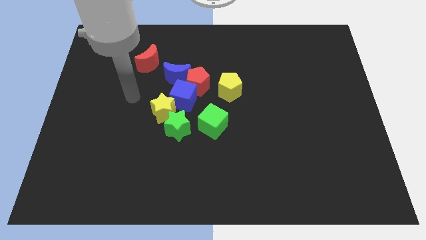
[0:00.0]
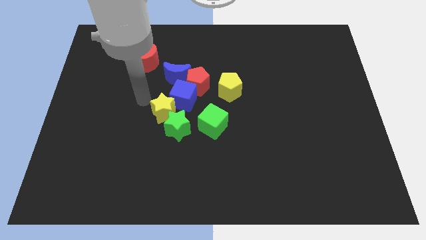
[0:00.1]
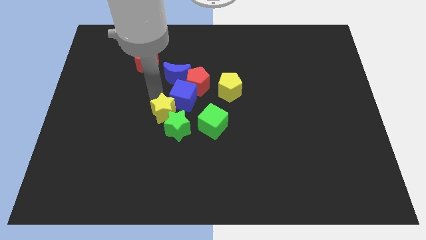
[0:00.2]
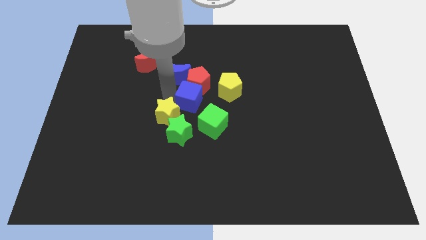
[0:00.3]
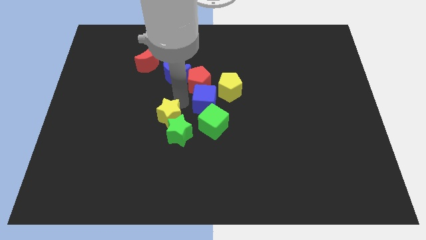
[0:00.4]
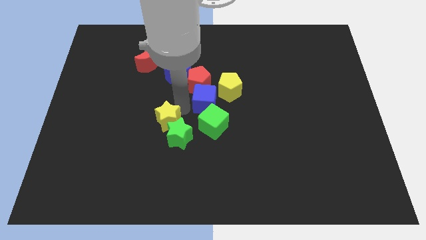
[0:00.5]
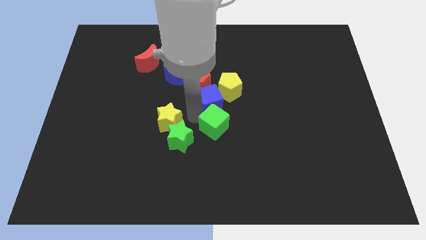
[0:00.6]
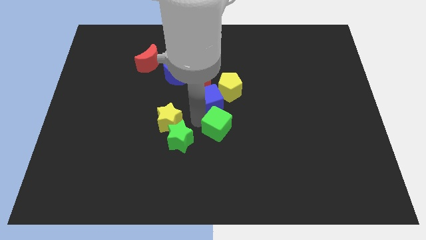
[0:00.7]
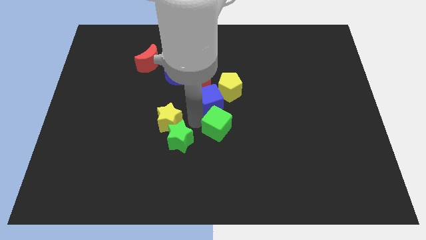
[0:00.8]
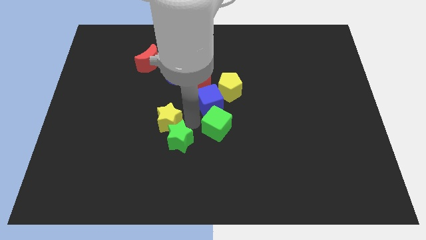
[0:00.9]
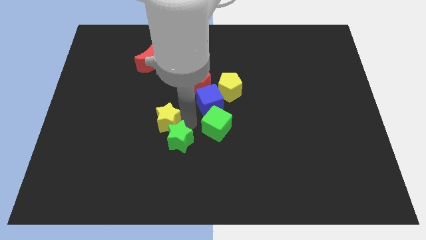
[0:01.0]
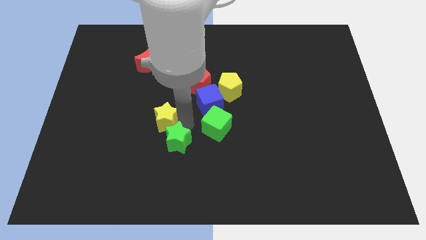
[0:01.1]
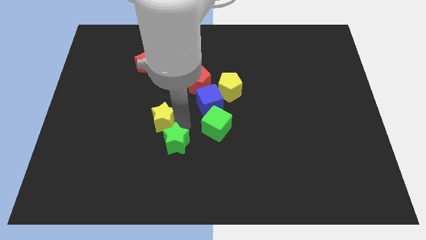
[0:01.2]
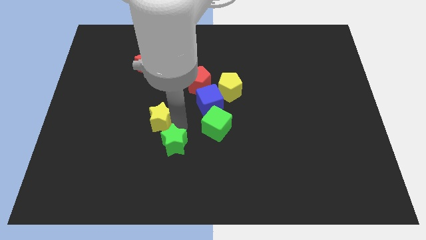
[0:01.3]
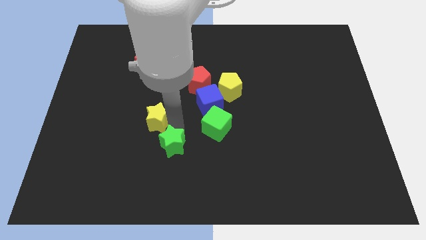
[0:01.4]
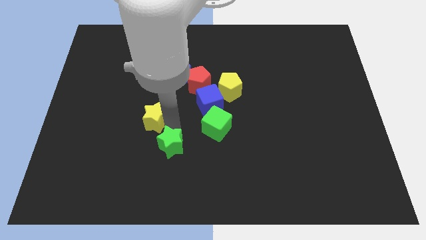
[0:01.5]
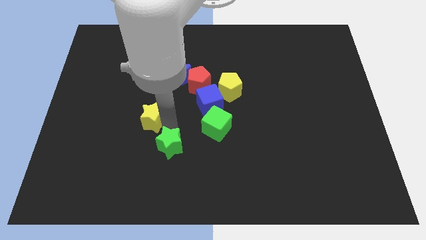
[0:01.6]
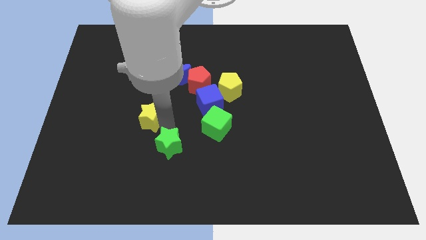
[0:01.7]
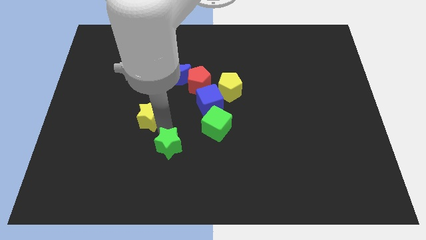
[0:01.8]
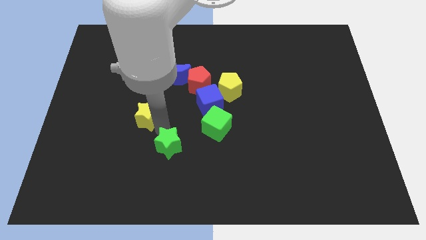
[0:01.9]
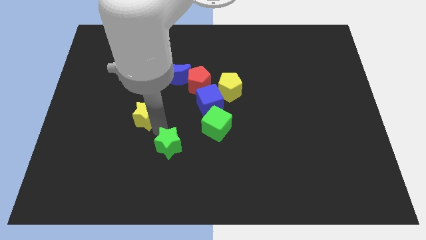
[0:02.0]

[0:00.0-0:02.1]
pull the yellow star apart from the green star and blue cube

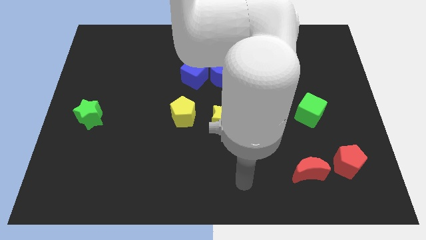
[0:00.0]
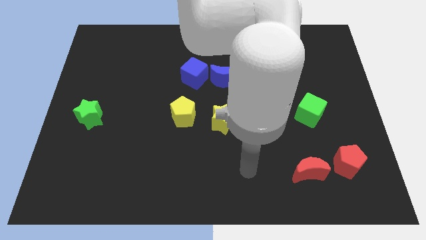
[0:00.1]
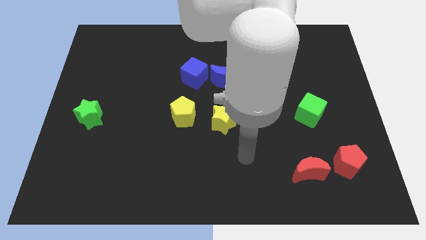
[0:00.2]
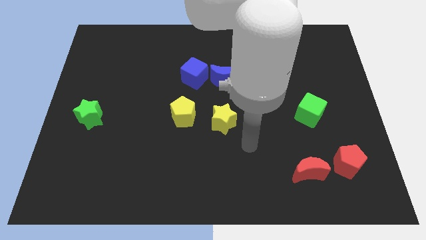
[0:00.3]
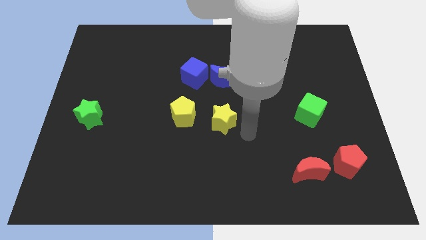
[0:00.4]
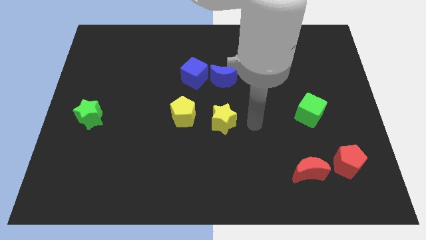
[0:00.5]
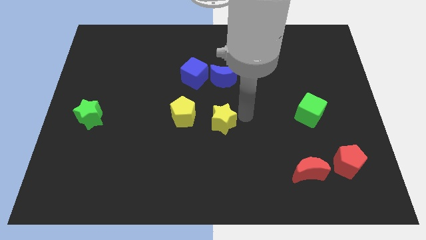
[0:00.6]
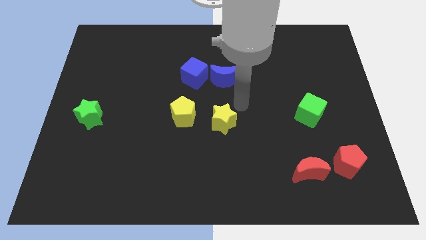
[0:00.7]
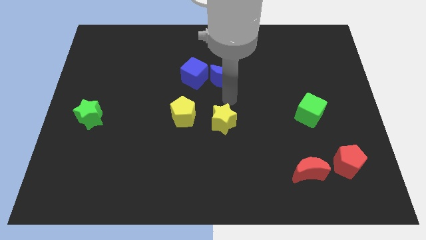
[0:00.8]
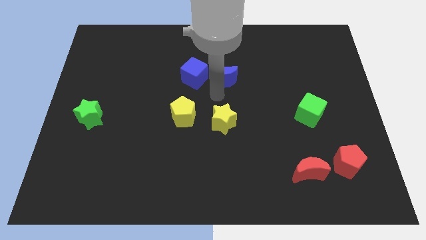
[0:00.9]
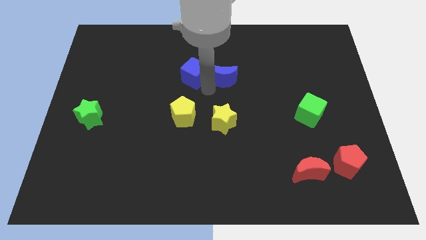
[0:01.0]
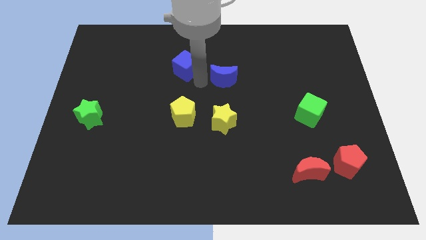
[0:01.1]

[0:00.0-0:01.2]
pull the blue moon apart from the blue cube

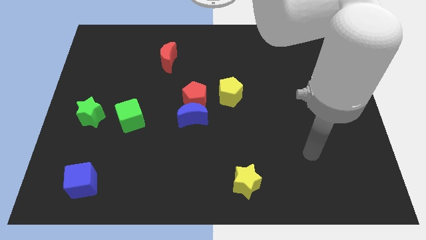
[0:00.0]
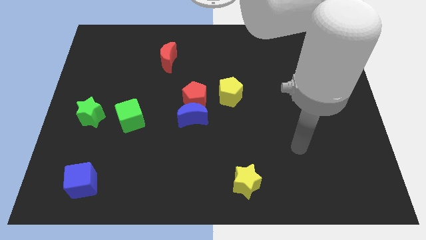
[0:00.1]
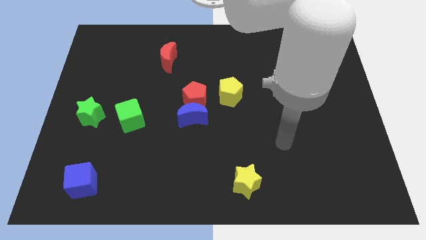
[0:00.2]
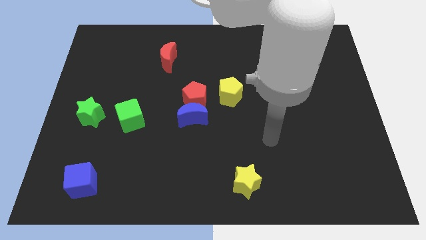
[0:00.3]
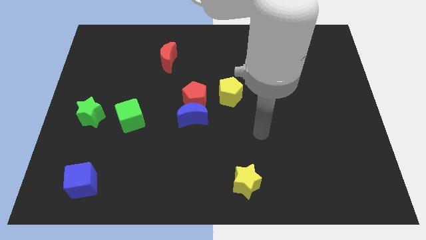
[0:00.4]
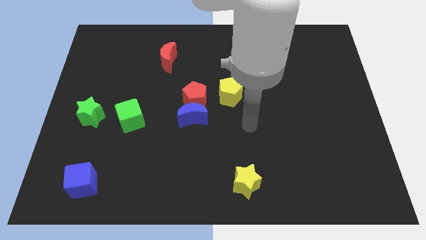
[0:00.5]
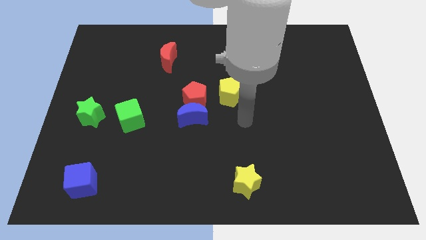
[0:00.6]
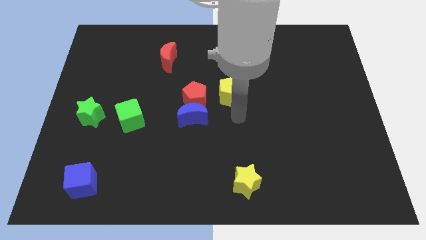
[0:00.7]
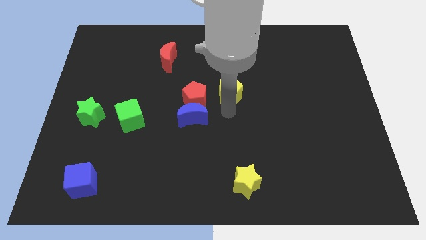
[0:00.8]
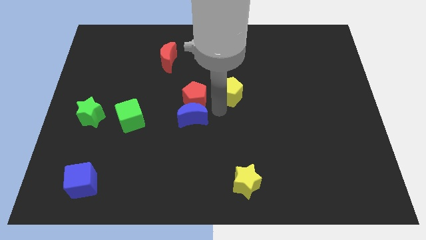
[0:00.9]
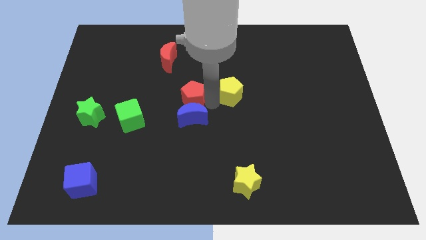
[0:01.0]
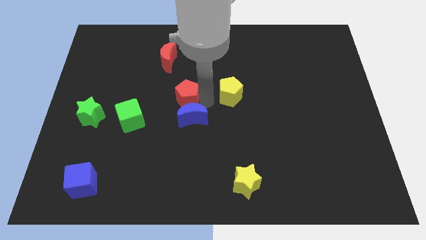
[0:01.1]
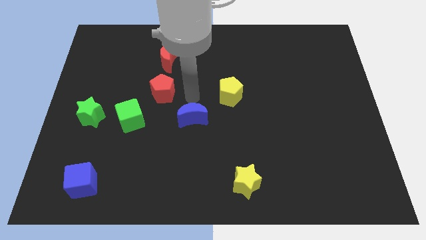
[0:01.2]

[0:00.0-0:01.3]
separate the blue moon from the red pentagon

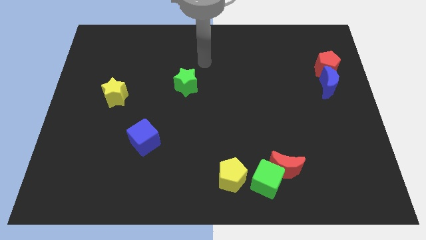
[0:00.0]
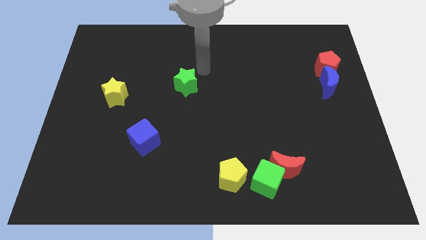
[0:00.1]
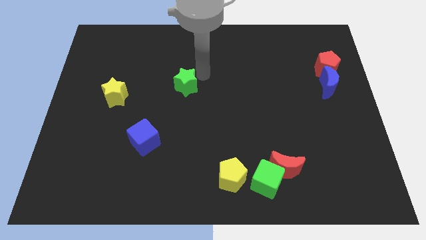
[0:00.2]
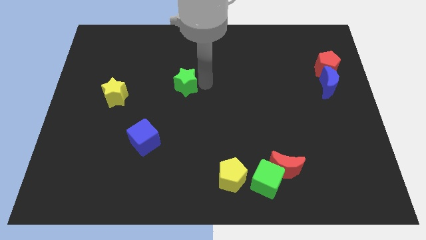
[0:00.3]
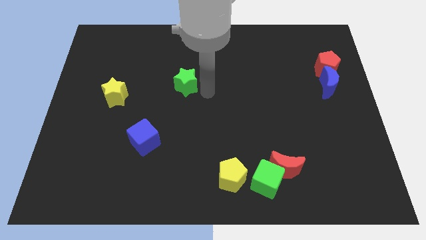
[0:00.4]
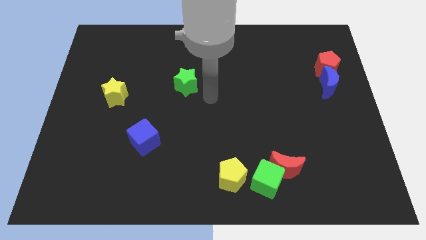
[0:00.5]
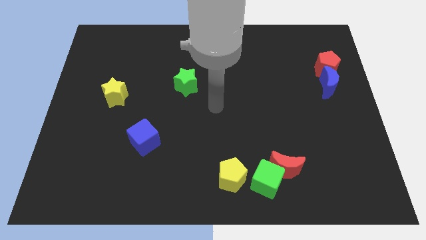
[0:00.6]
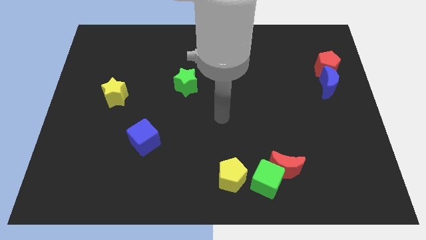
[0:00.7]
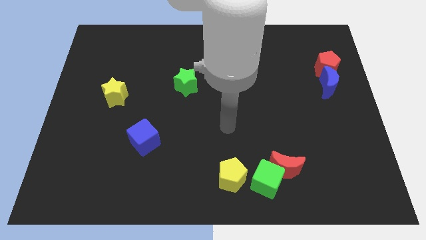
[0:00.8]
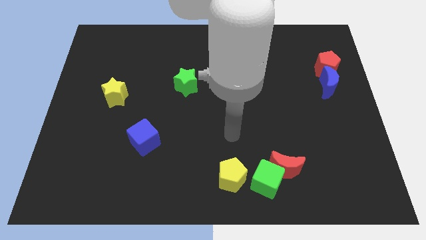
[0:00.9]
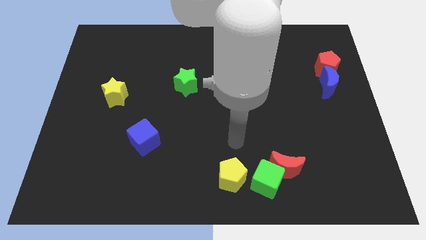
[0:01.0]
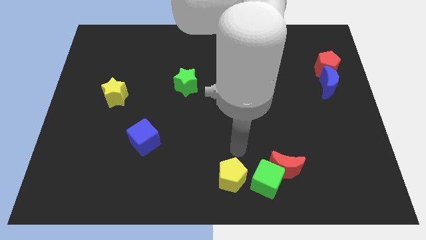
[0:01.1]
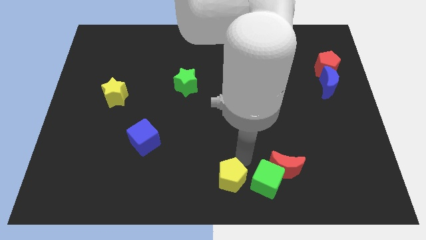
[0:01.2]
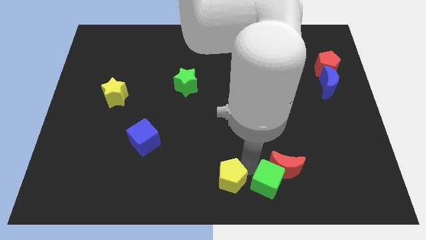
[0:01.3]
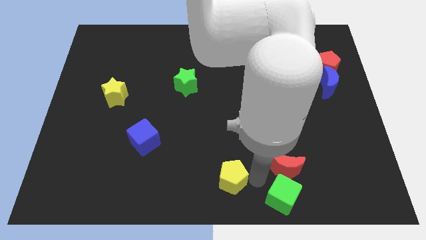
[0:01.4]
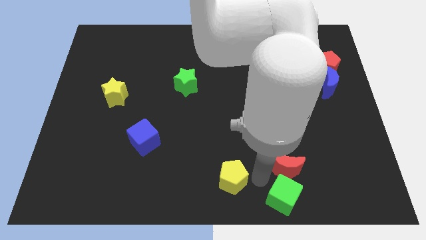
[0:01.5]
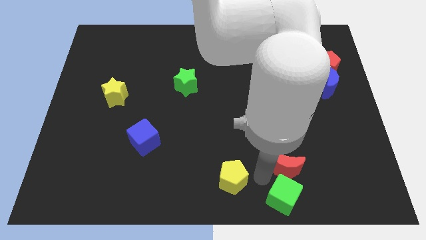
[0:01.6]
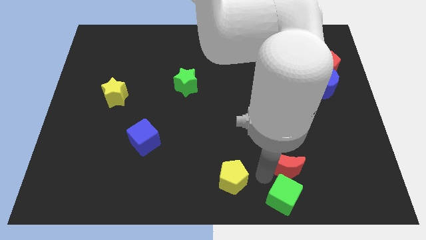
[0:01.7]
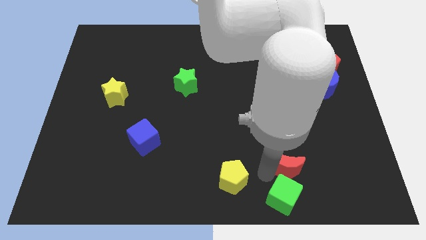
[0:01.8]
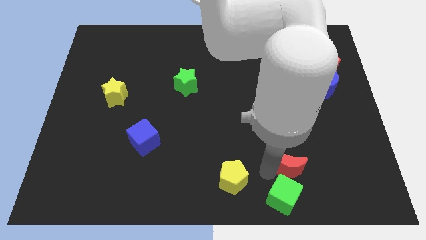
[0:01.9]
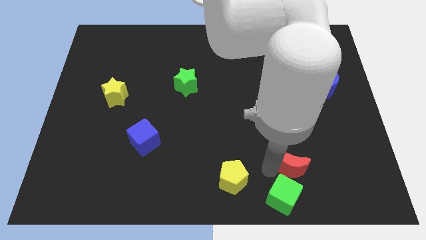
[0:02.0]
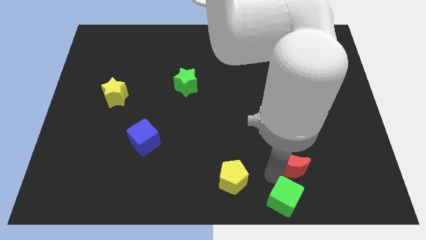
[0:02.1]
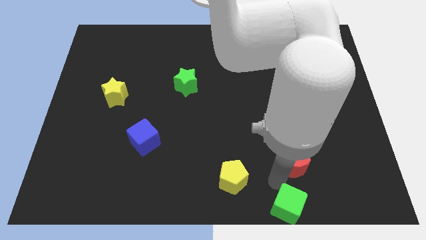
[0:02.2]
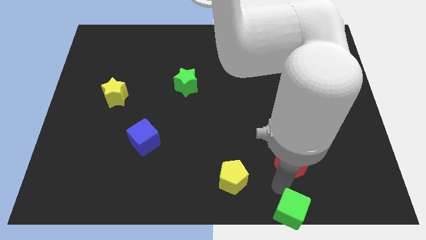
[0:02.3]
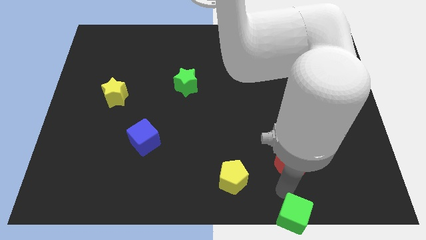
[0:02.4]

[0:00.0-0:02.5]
move the red moon away from the green cube

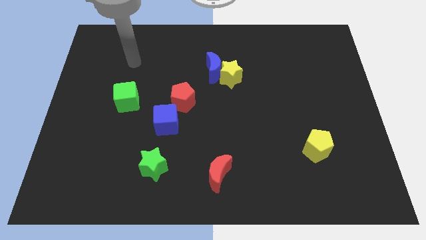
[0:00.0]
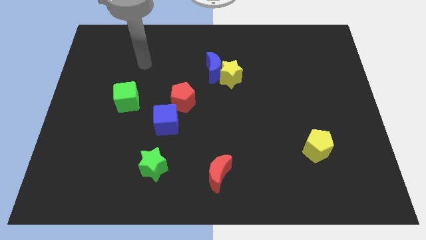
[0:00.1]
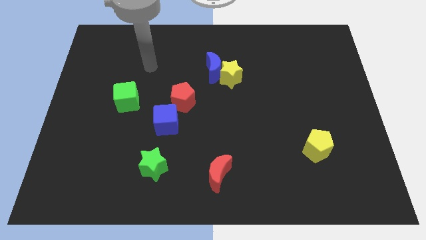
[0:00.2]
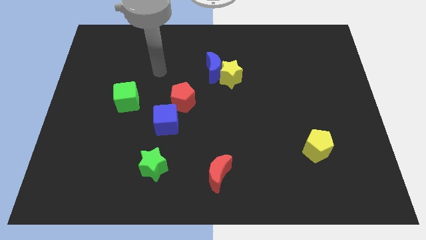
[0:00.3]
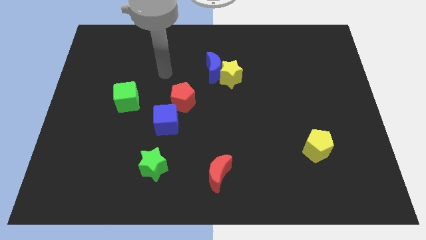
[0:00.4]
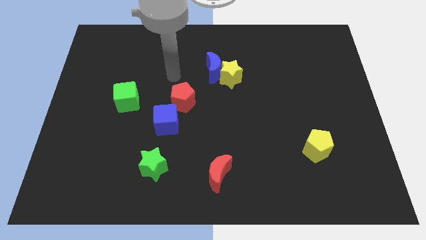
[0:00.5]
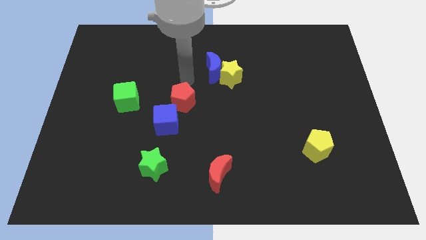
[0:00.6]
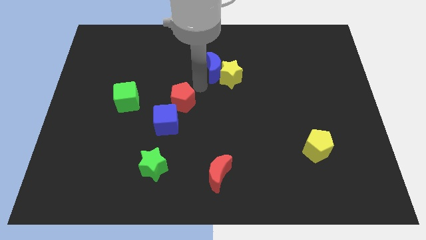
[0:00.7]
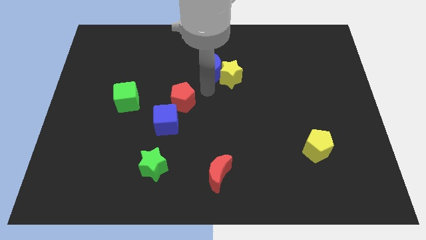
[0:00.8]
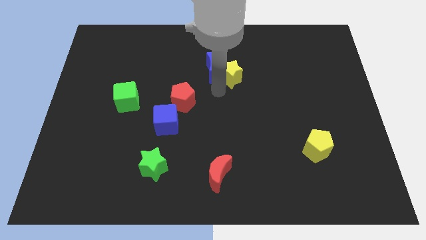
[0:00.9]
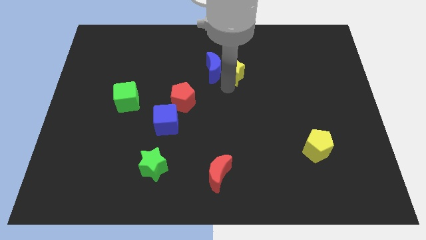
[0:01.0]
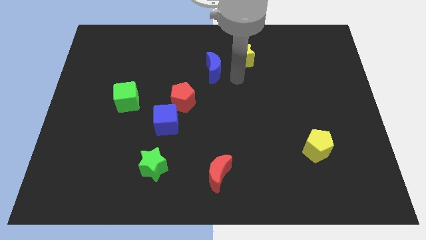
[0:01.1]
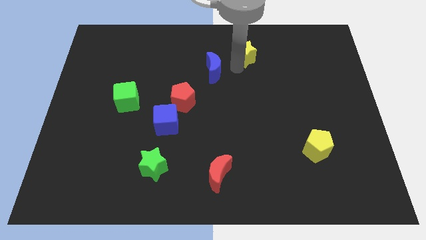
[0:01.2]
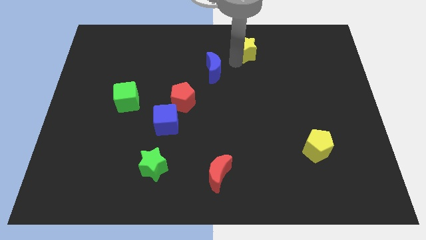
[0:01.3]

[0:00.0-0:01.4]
move the blue moon away from the yellow star

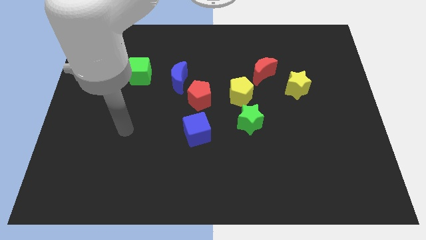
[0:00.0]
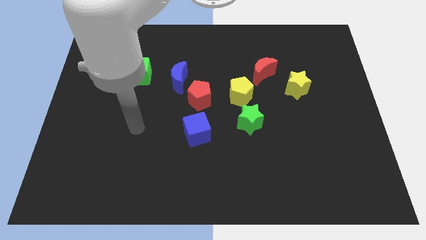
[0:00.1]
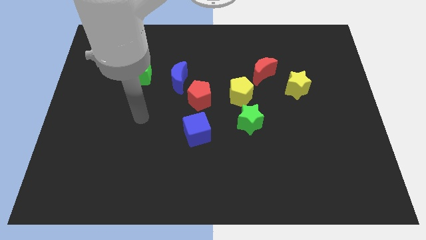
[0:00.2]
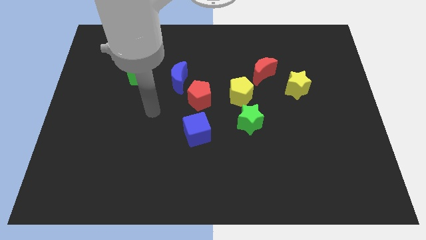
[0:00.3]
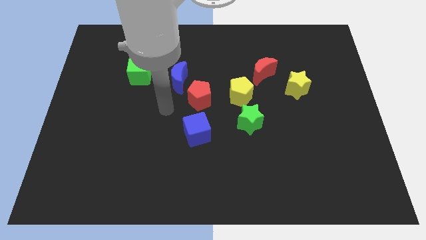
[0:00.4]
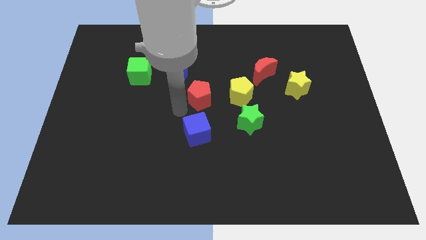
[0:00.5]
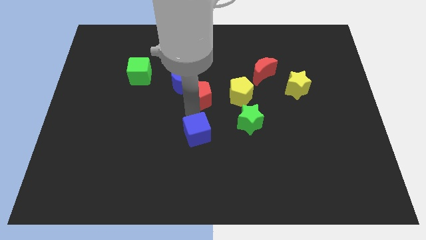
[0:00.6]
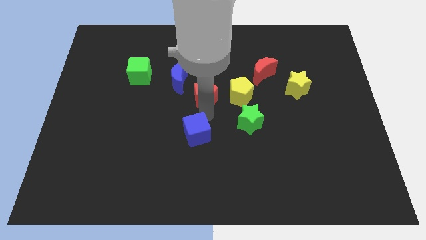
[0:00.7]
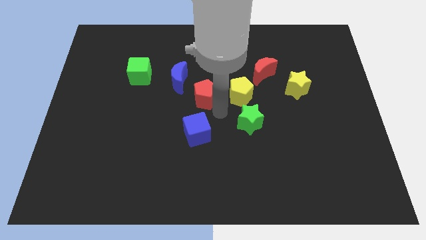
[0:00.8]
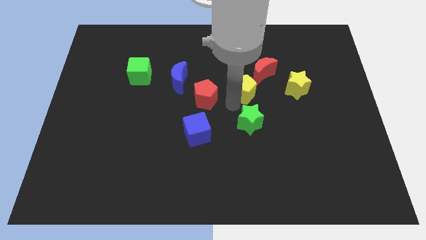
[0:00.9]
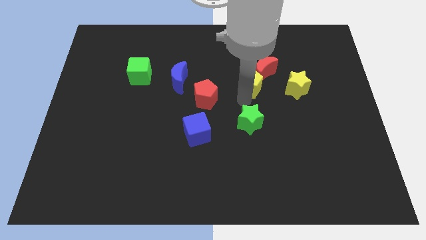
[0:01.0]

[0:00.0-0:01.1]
separate the green star from the yellow pentagon
